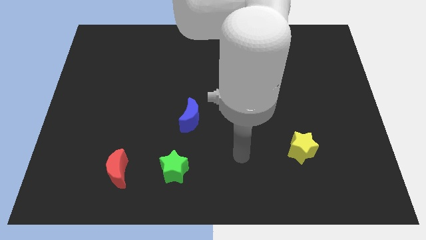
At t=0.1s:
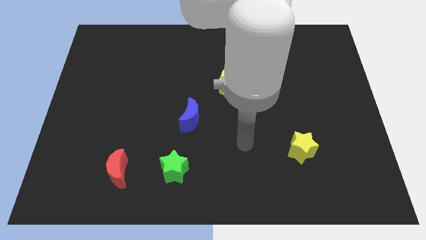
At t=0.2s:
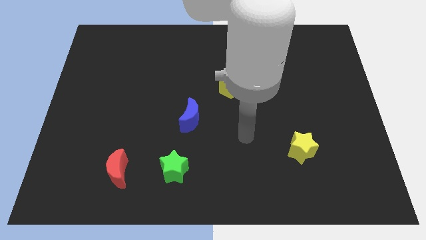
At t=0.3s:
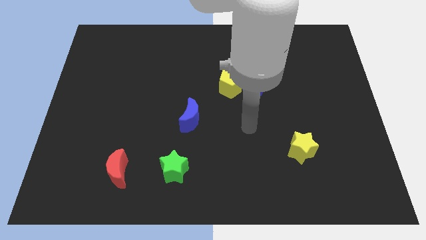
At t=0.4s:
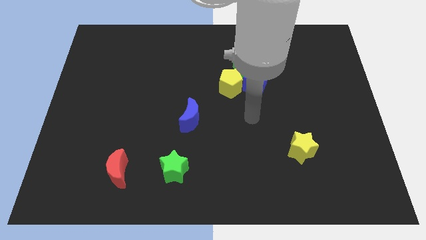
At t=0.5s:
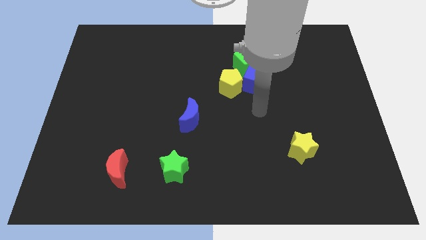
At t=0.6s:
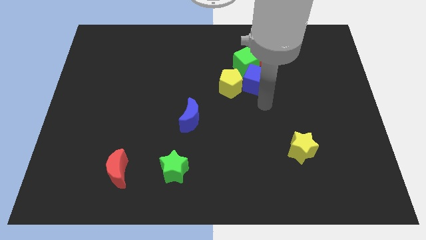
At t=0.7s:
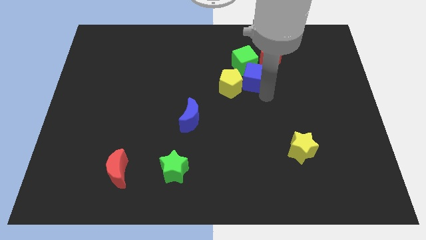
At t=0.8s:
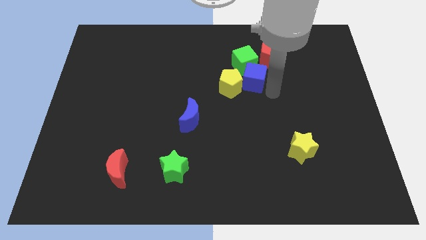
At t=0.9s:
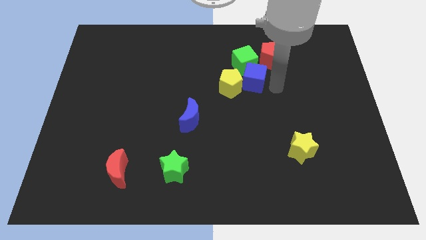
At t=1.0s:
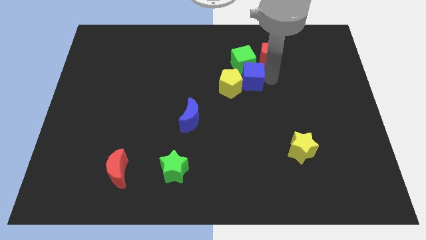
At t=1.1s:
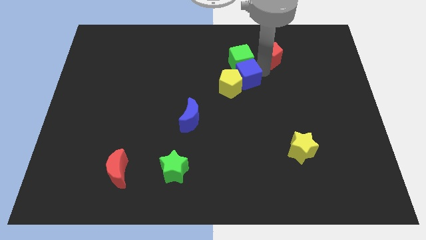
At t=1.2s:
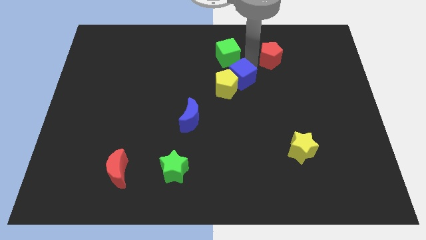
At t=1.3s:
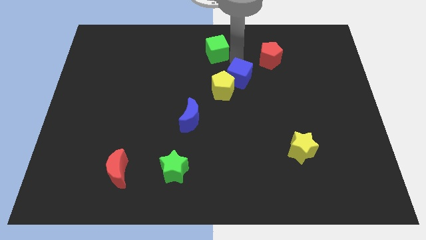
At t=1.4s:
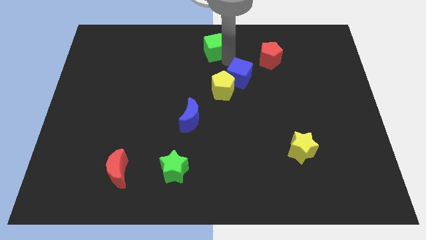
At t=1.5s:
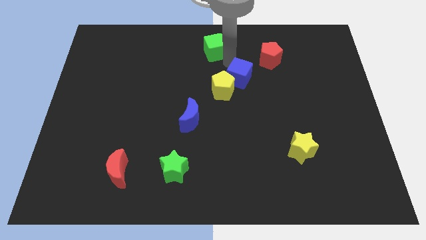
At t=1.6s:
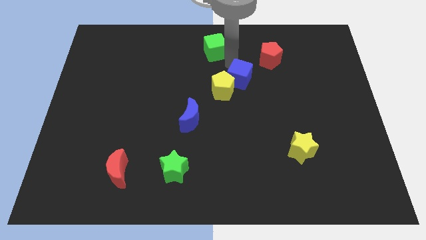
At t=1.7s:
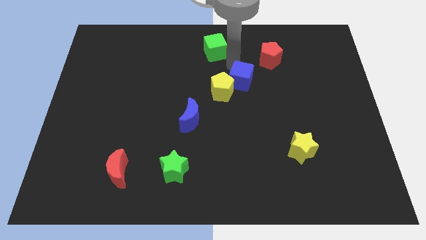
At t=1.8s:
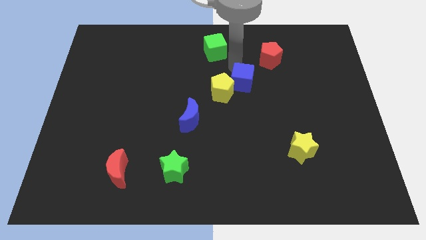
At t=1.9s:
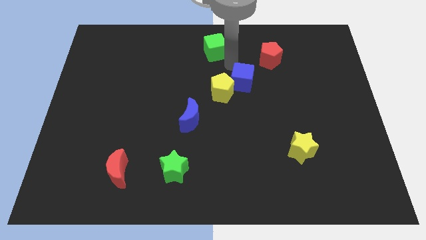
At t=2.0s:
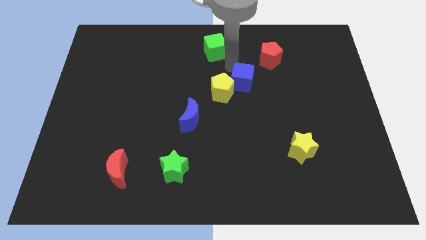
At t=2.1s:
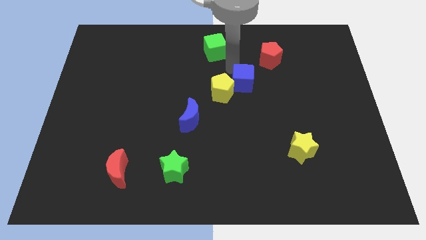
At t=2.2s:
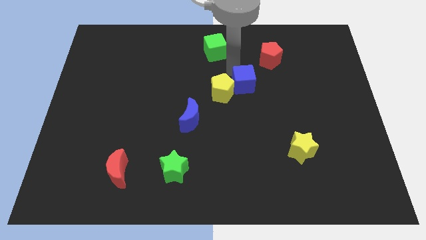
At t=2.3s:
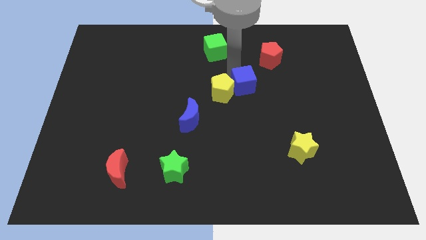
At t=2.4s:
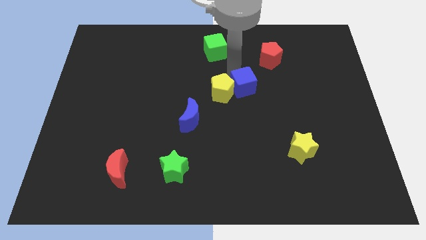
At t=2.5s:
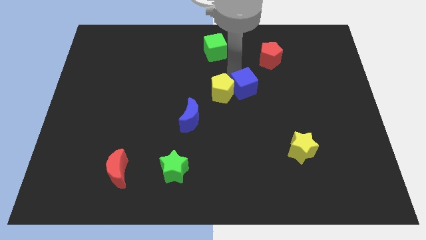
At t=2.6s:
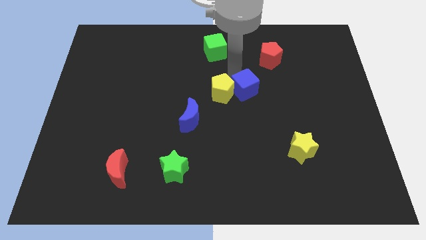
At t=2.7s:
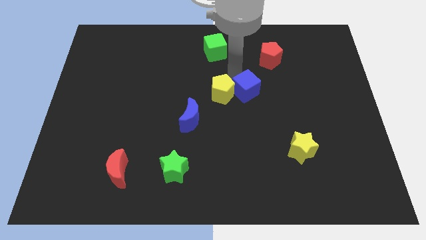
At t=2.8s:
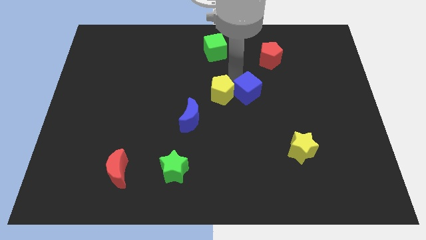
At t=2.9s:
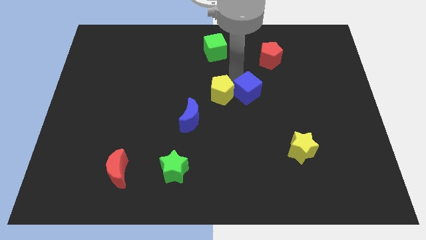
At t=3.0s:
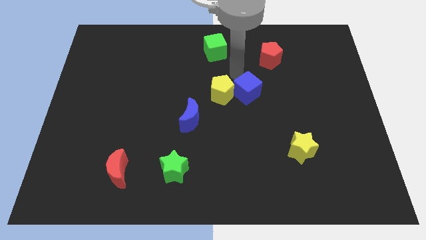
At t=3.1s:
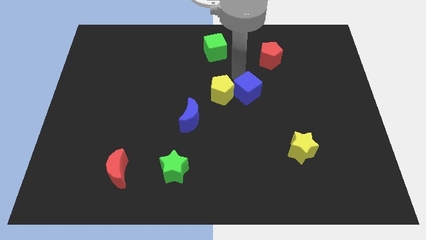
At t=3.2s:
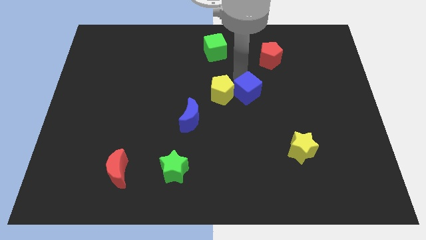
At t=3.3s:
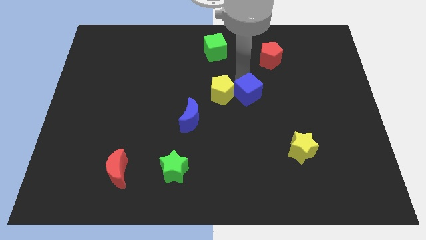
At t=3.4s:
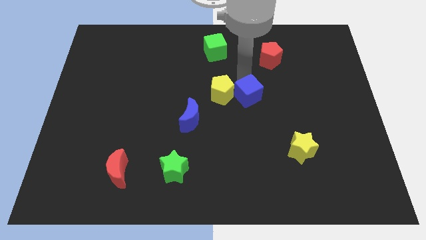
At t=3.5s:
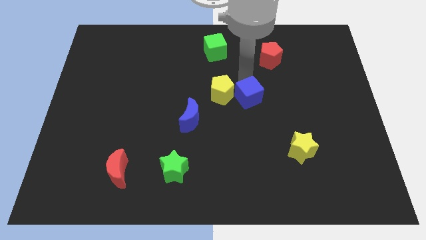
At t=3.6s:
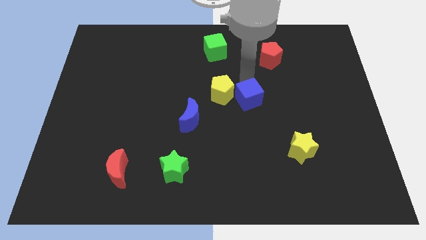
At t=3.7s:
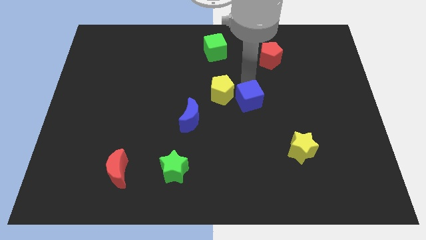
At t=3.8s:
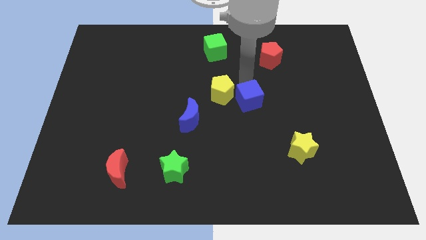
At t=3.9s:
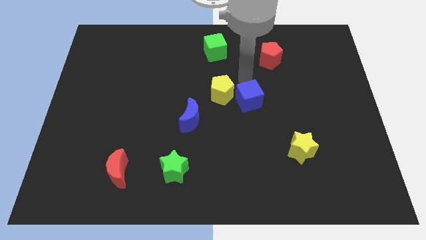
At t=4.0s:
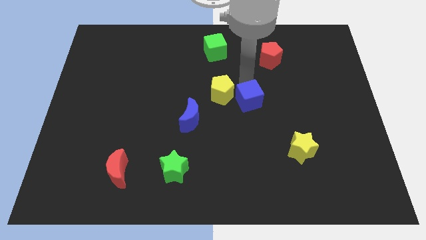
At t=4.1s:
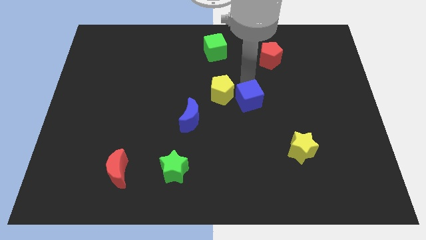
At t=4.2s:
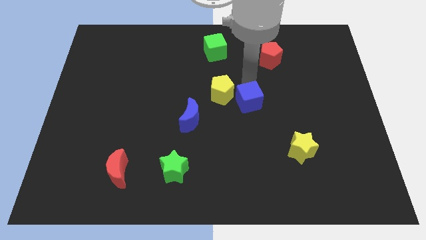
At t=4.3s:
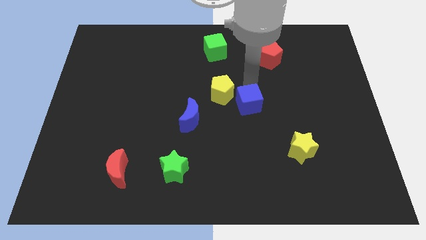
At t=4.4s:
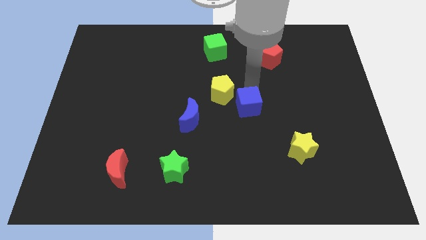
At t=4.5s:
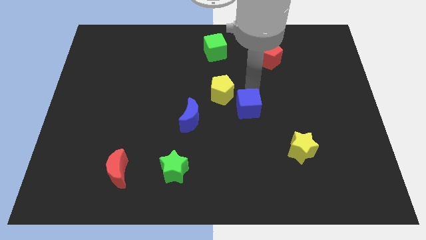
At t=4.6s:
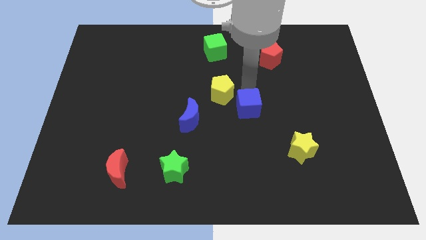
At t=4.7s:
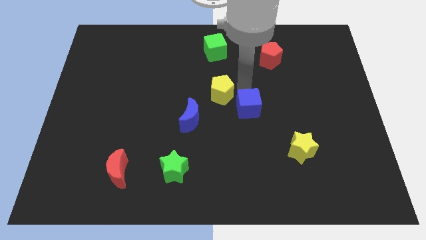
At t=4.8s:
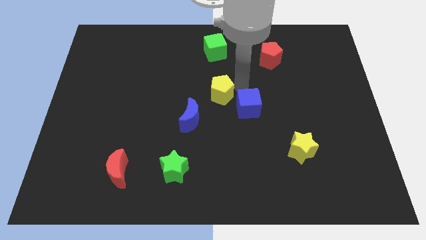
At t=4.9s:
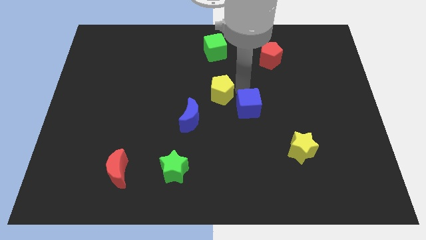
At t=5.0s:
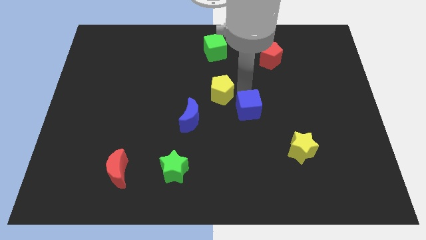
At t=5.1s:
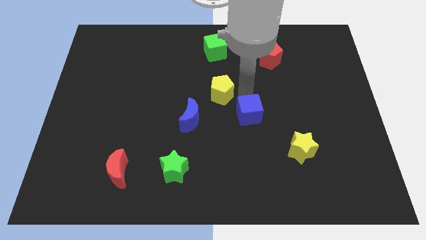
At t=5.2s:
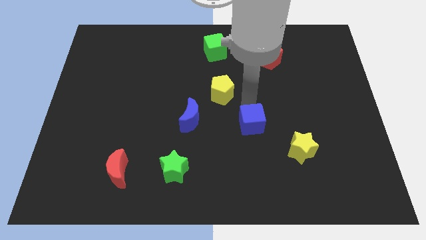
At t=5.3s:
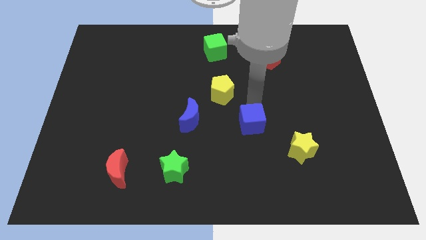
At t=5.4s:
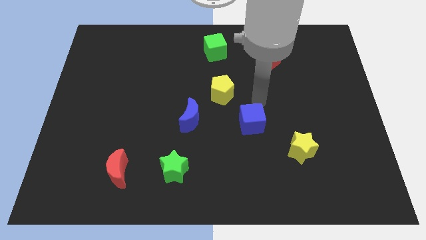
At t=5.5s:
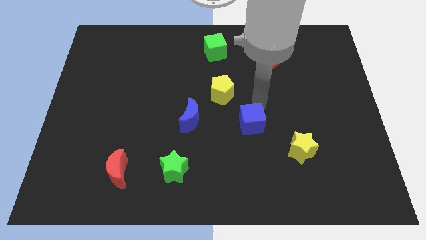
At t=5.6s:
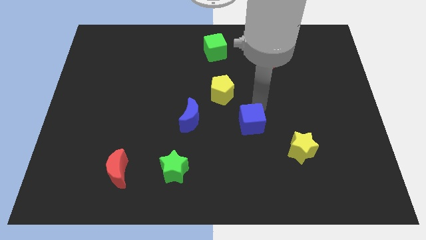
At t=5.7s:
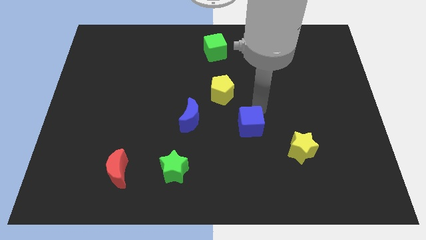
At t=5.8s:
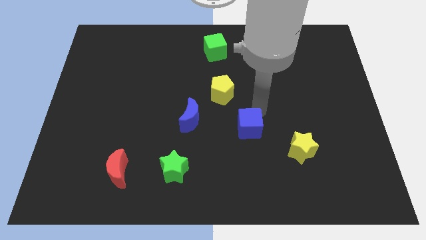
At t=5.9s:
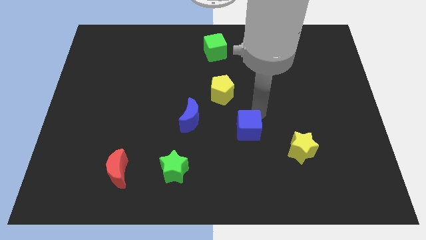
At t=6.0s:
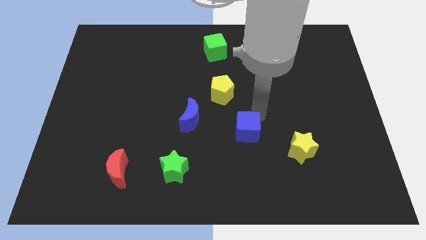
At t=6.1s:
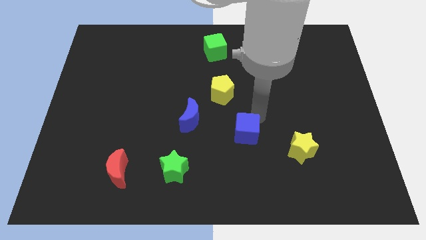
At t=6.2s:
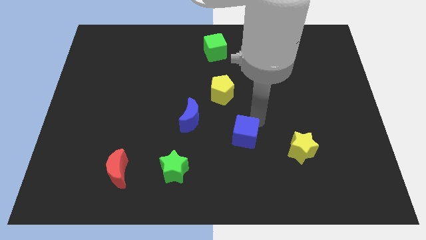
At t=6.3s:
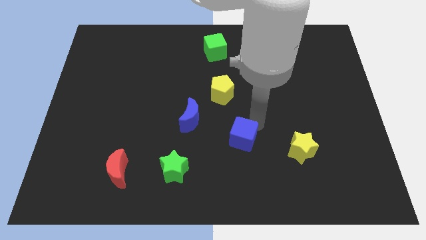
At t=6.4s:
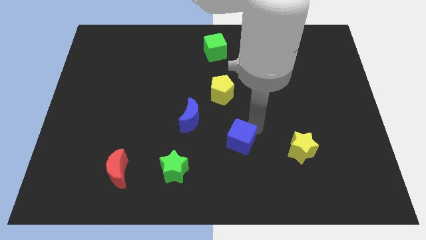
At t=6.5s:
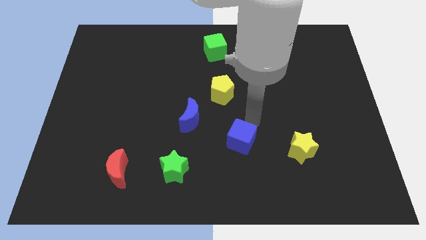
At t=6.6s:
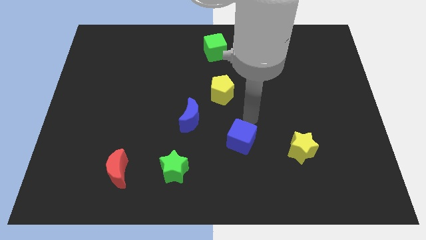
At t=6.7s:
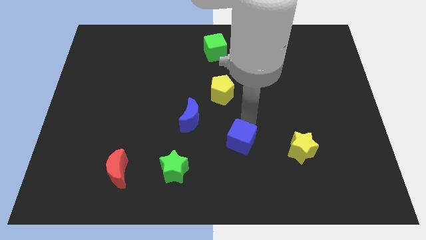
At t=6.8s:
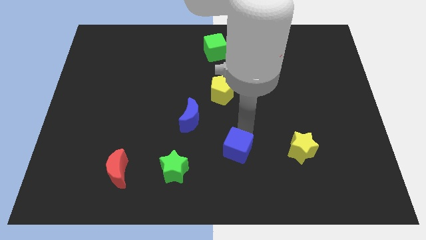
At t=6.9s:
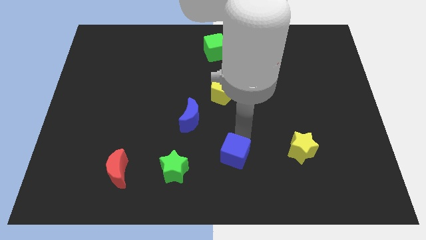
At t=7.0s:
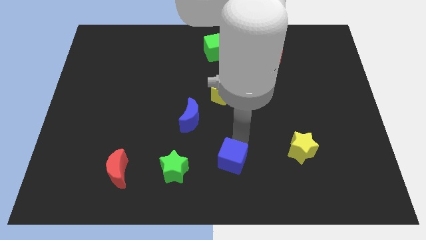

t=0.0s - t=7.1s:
slide the blue cube to the bottom side
